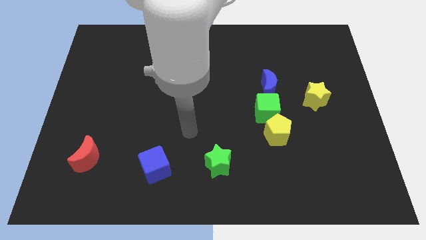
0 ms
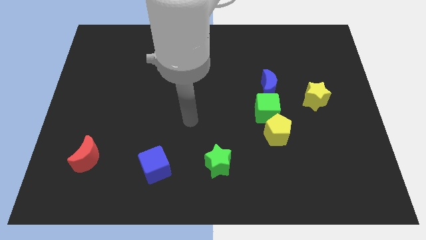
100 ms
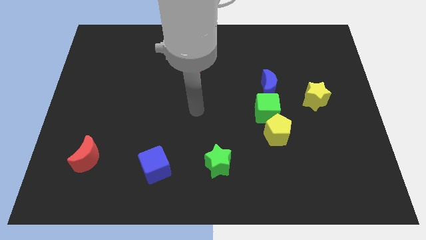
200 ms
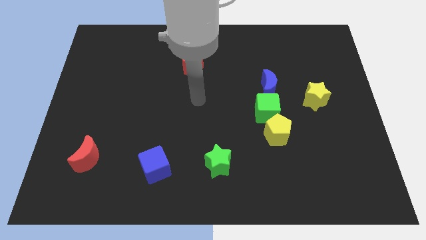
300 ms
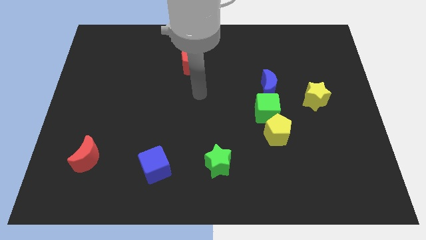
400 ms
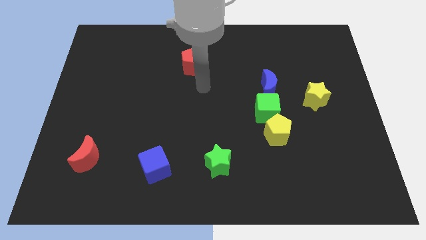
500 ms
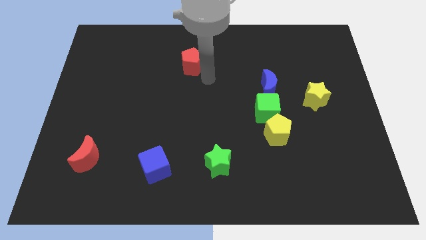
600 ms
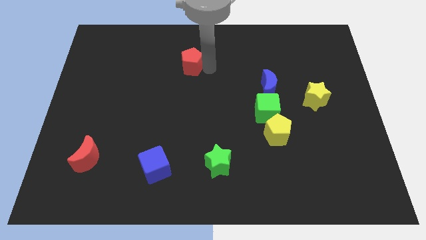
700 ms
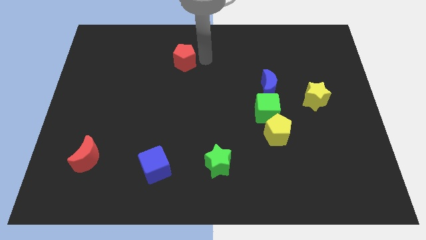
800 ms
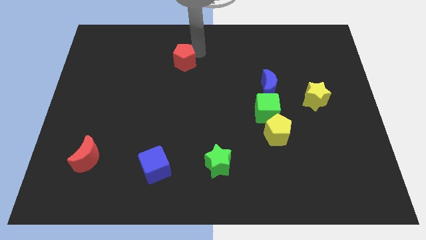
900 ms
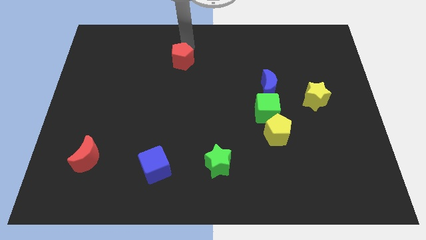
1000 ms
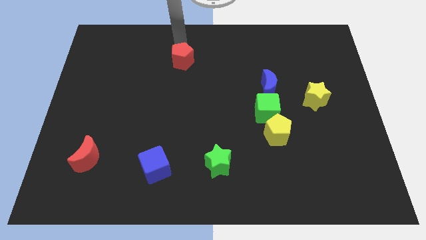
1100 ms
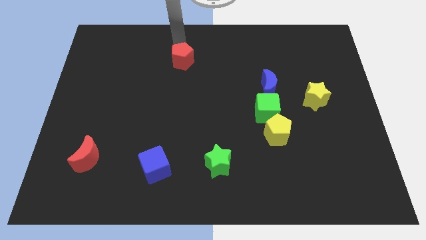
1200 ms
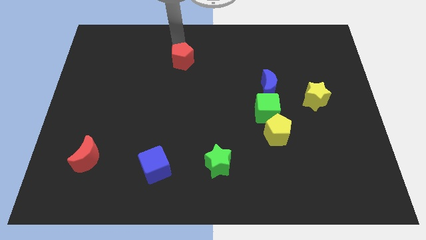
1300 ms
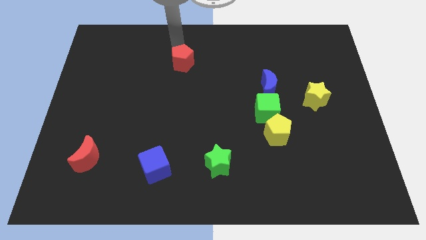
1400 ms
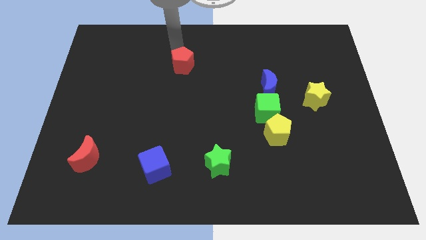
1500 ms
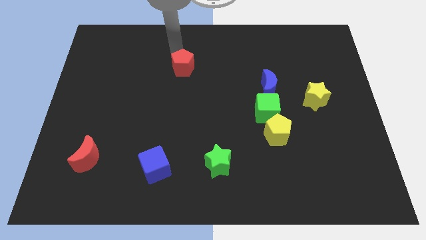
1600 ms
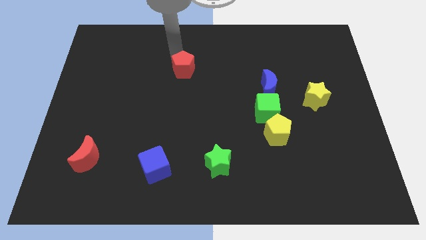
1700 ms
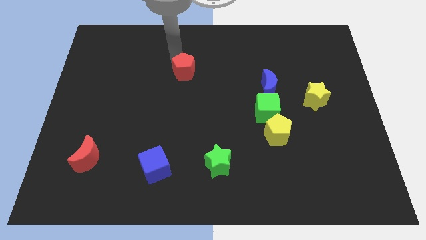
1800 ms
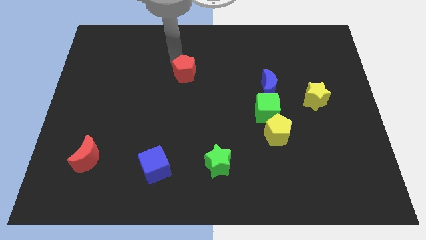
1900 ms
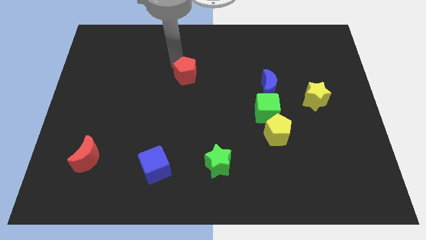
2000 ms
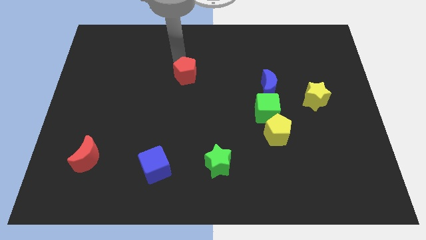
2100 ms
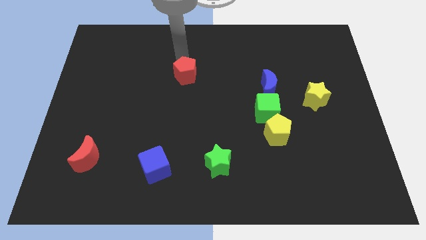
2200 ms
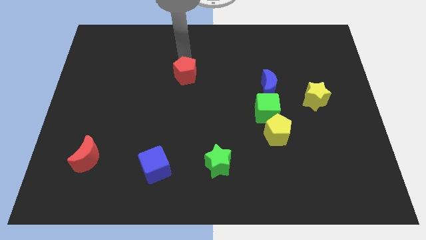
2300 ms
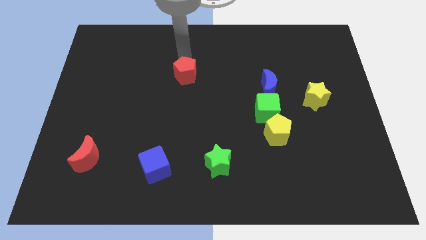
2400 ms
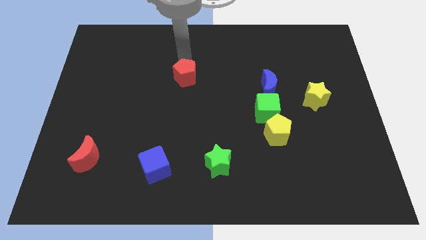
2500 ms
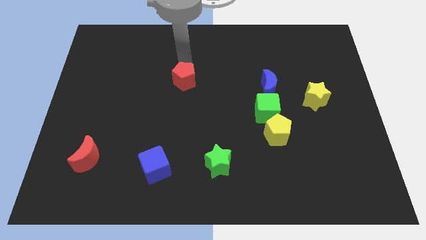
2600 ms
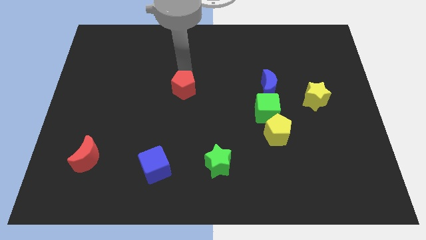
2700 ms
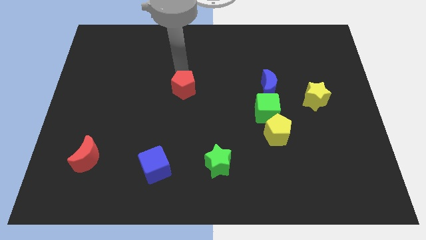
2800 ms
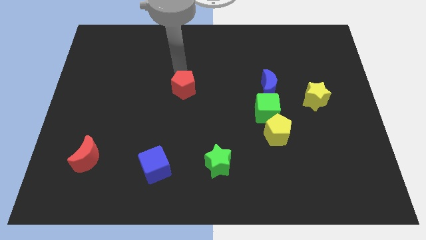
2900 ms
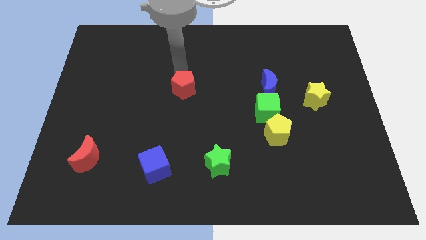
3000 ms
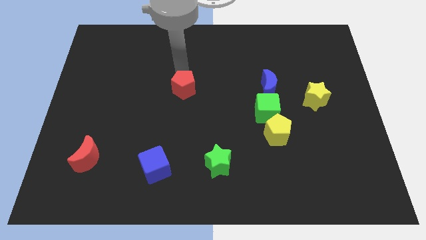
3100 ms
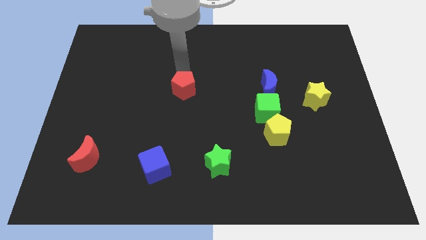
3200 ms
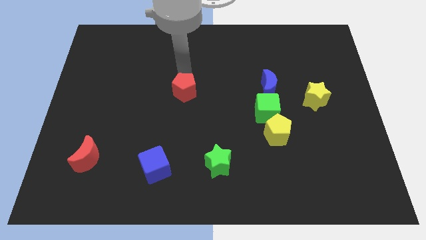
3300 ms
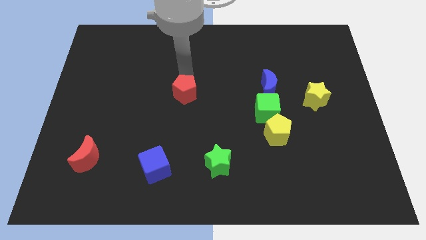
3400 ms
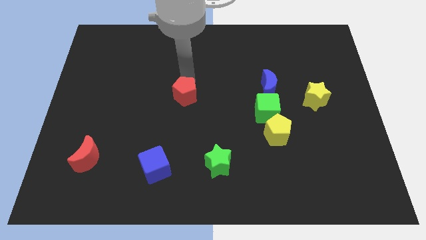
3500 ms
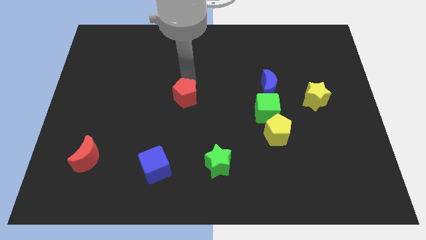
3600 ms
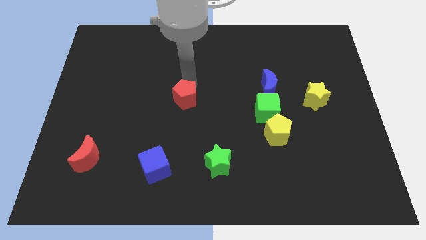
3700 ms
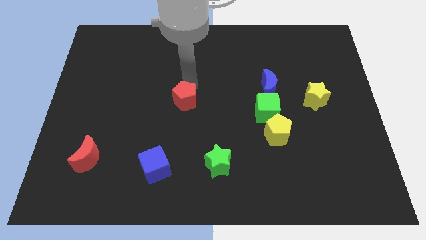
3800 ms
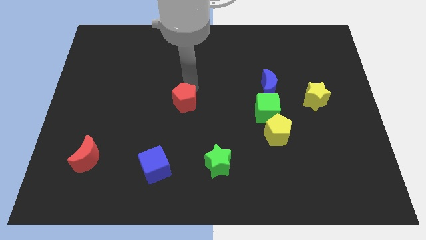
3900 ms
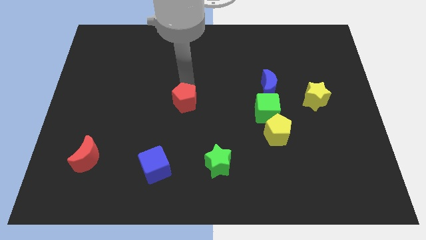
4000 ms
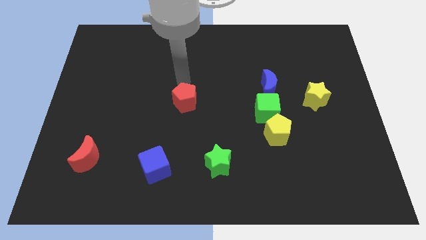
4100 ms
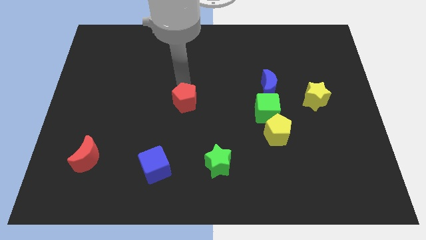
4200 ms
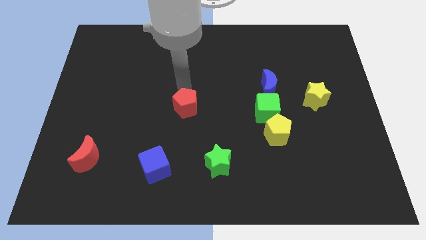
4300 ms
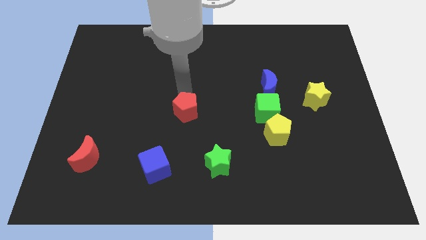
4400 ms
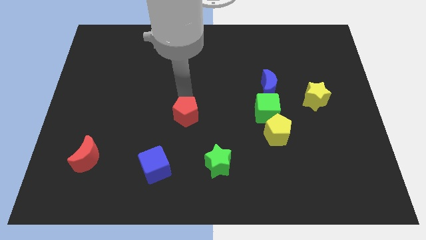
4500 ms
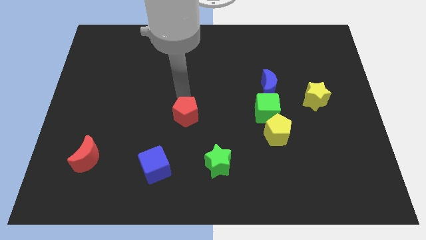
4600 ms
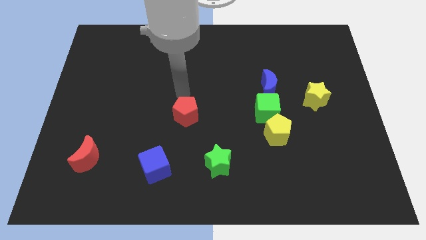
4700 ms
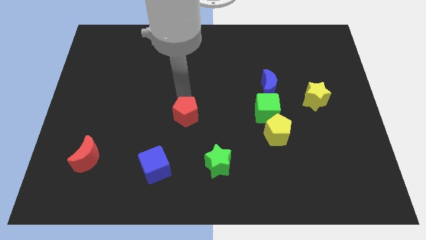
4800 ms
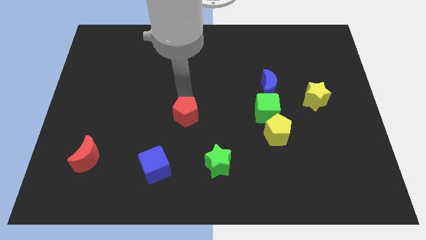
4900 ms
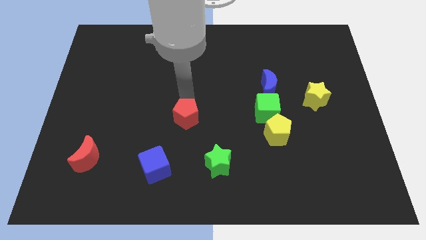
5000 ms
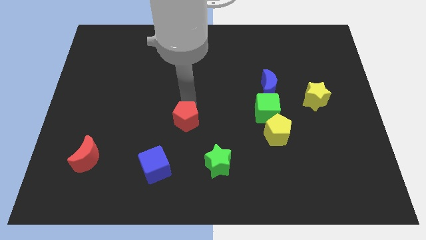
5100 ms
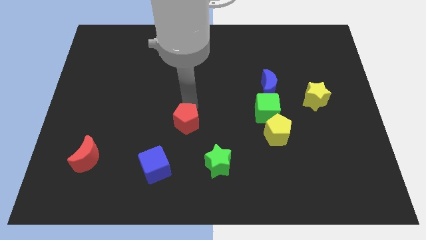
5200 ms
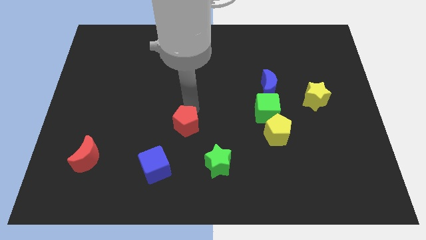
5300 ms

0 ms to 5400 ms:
put the red pentagon to the top left of the green star
